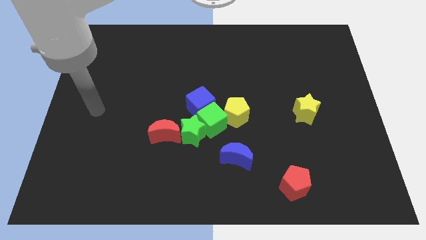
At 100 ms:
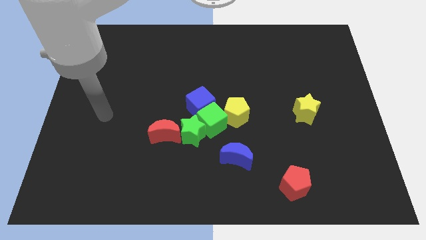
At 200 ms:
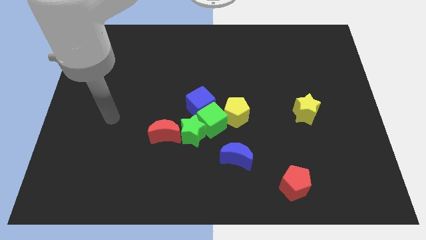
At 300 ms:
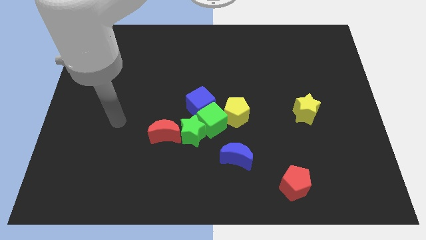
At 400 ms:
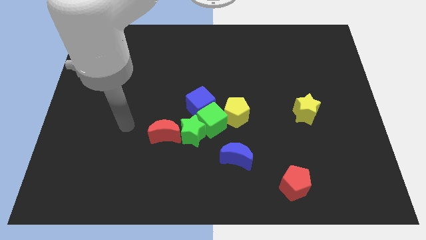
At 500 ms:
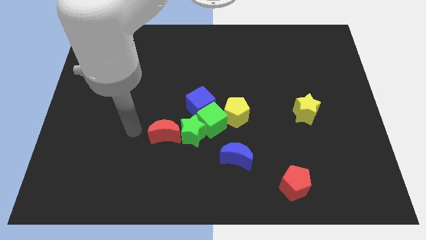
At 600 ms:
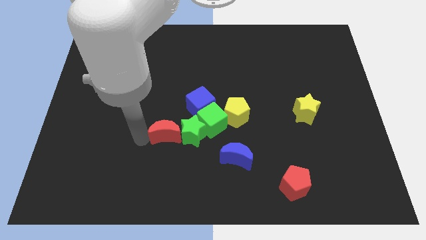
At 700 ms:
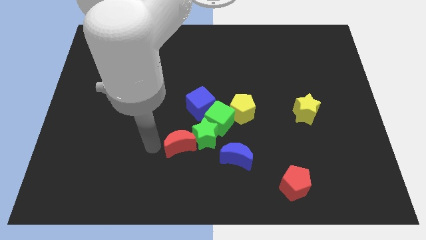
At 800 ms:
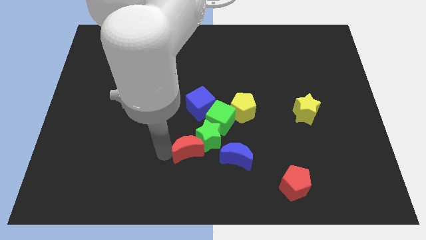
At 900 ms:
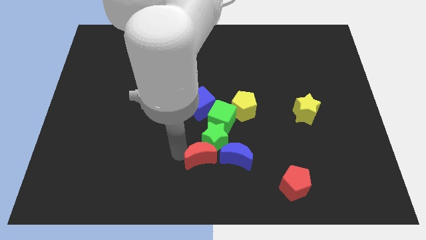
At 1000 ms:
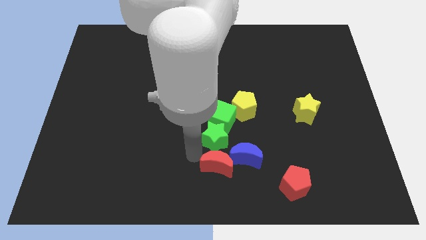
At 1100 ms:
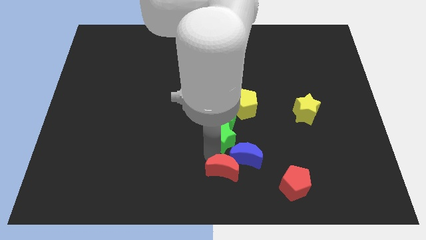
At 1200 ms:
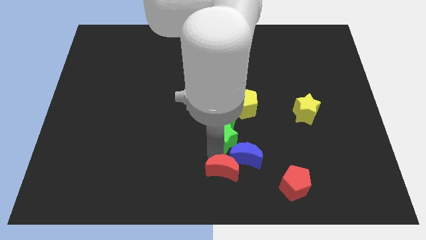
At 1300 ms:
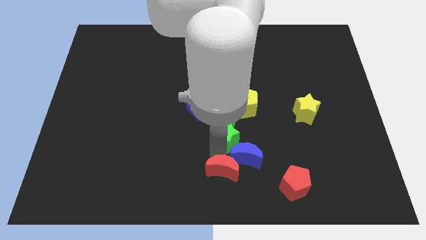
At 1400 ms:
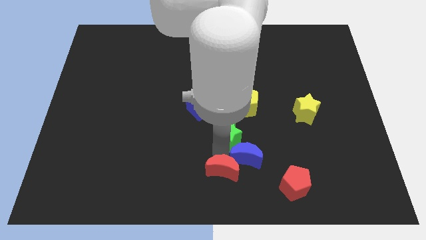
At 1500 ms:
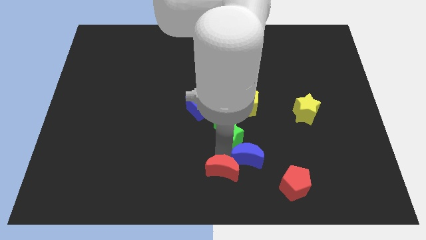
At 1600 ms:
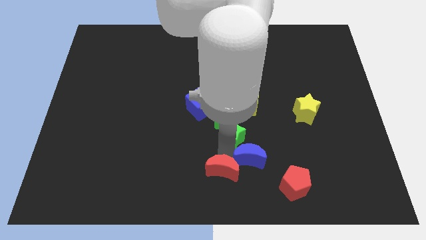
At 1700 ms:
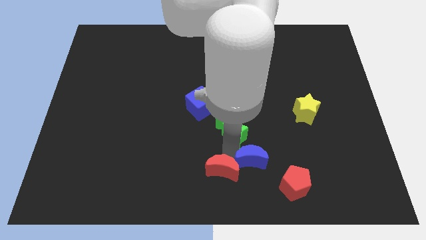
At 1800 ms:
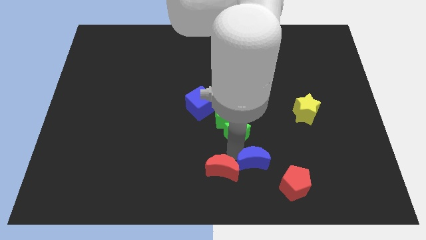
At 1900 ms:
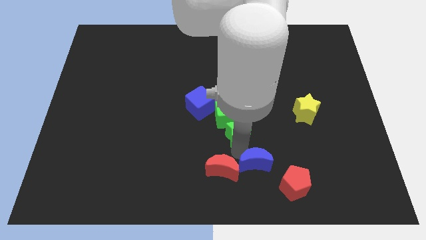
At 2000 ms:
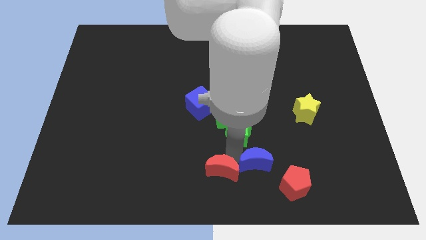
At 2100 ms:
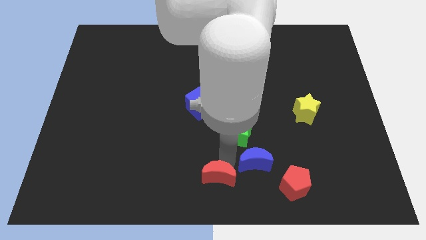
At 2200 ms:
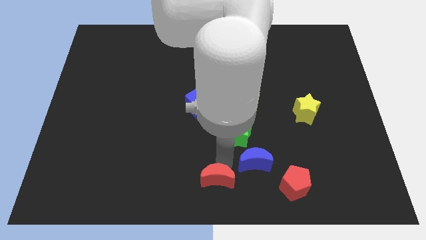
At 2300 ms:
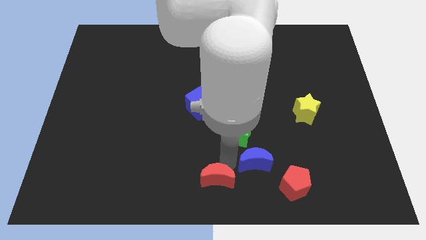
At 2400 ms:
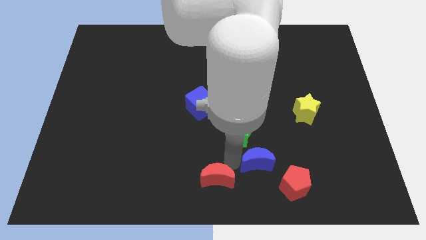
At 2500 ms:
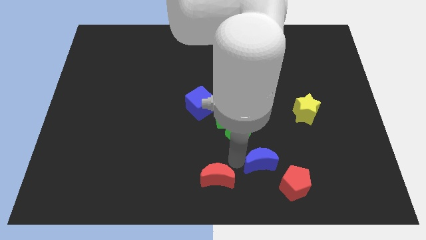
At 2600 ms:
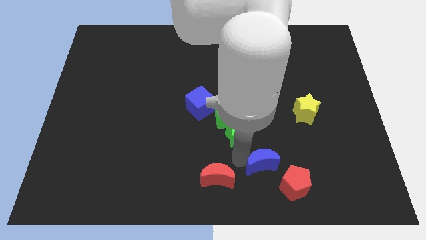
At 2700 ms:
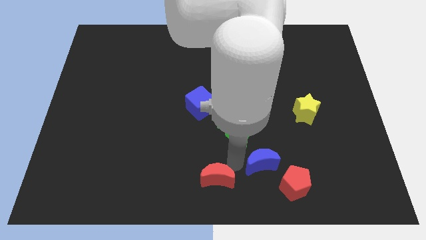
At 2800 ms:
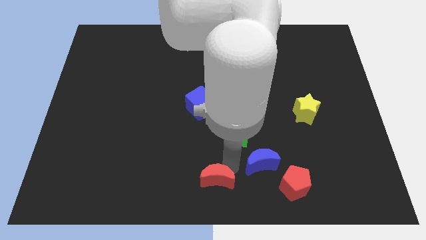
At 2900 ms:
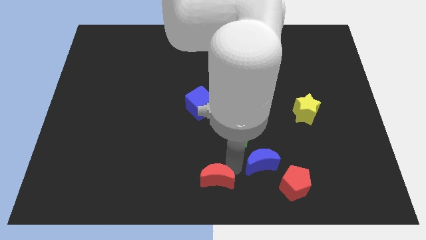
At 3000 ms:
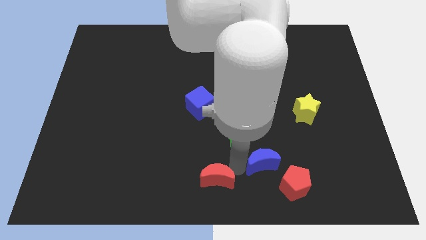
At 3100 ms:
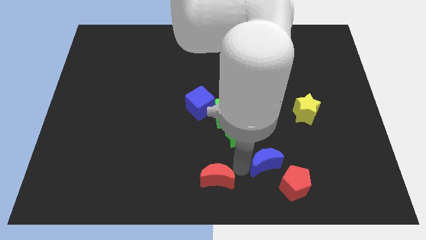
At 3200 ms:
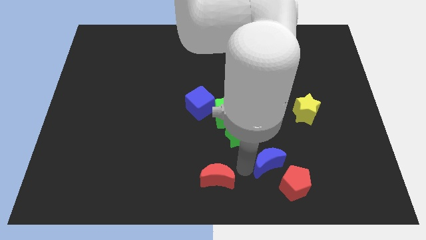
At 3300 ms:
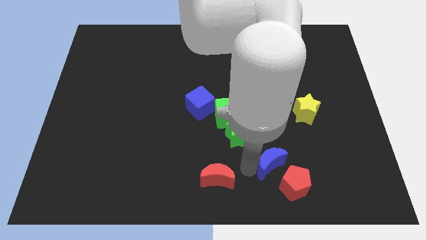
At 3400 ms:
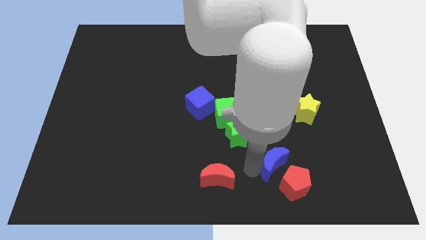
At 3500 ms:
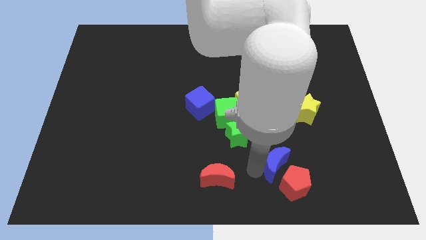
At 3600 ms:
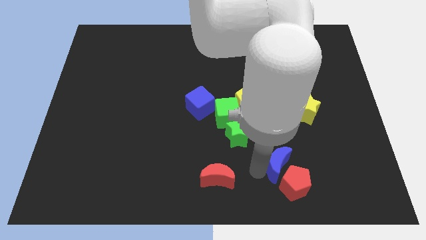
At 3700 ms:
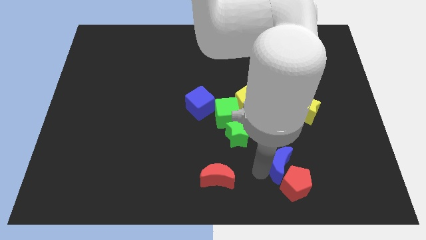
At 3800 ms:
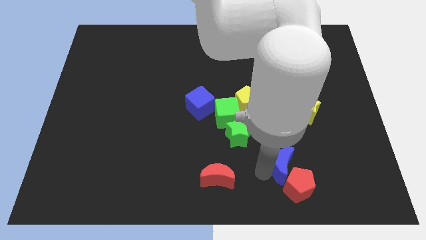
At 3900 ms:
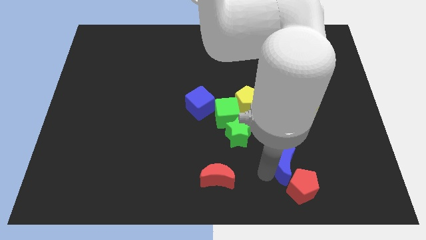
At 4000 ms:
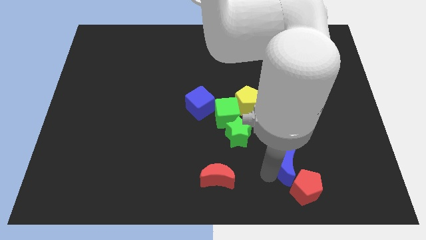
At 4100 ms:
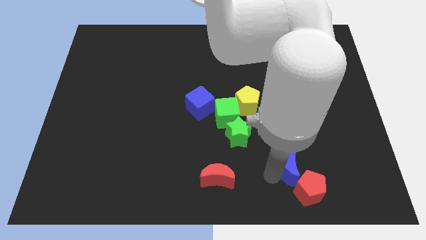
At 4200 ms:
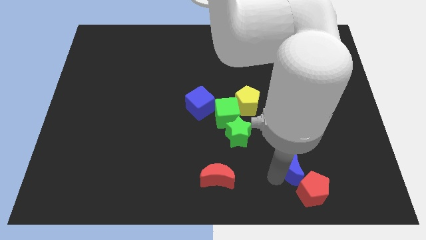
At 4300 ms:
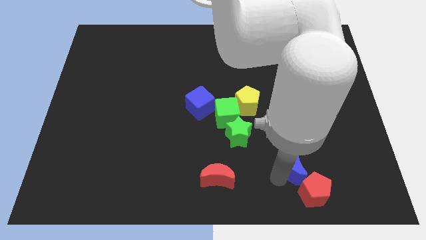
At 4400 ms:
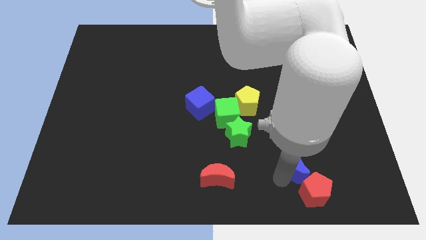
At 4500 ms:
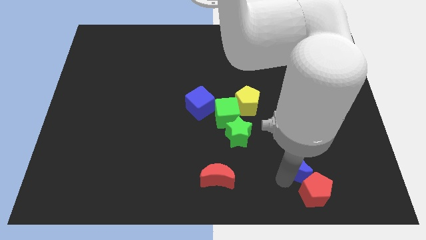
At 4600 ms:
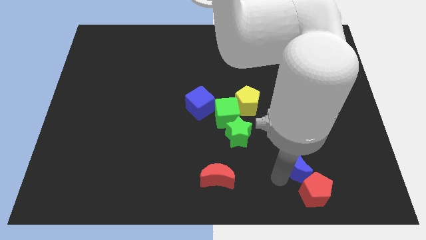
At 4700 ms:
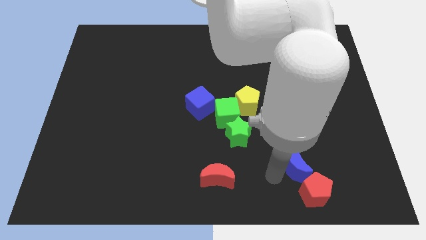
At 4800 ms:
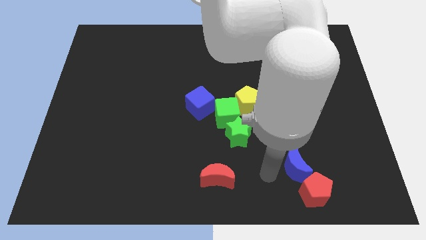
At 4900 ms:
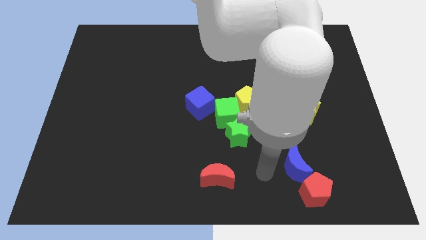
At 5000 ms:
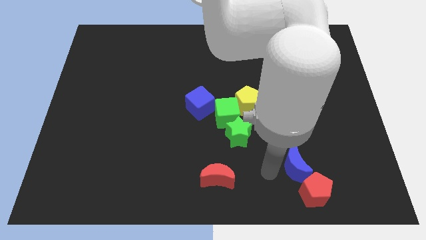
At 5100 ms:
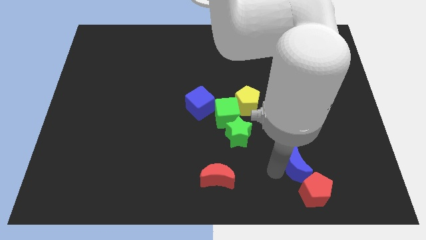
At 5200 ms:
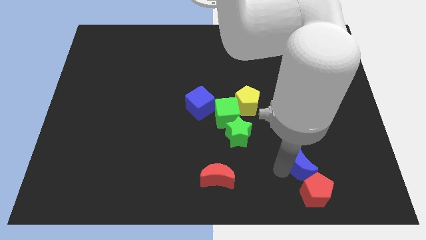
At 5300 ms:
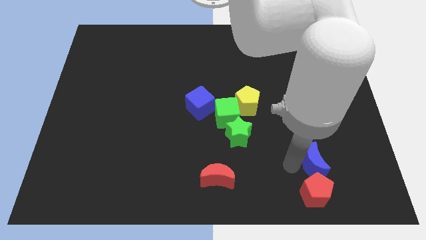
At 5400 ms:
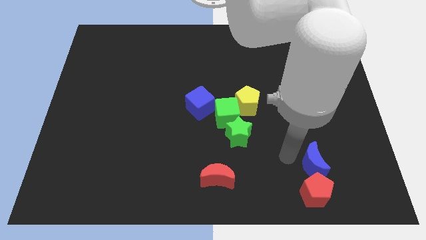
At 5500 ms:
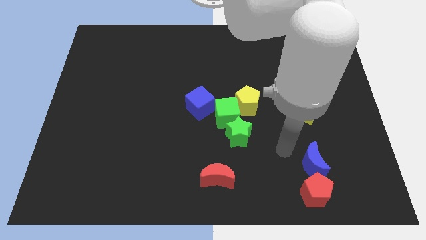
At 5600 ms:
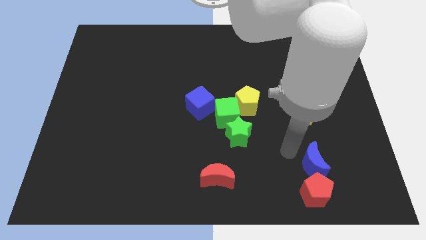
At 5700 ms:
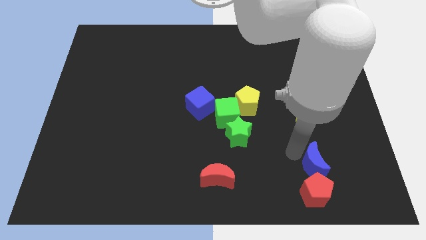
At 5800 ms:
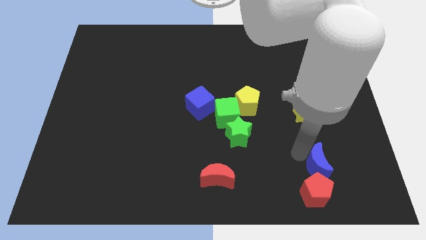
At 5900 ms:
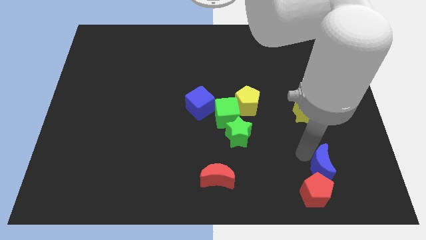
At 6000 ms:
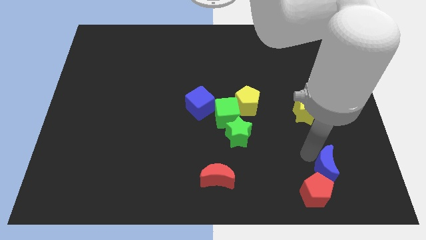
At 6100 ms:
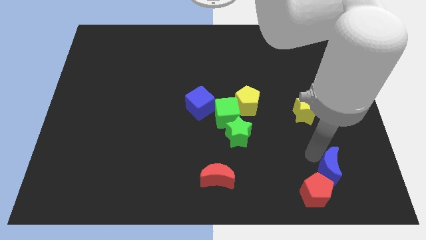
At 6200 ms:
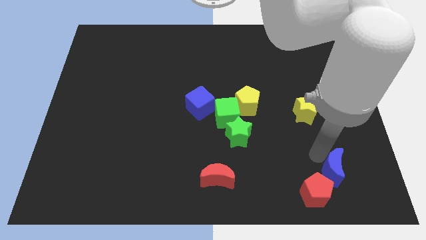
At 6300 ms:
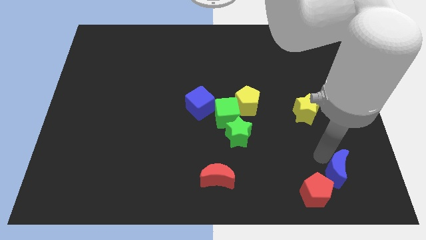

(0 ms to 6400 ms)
move the blue moon just right of the red pentagon
